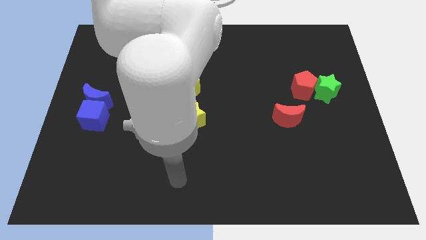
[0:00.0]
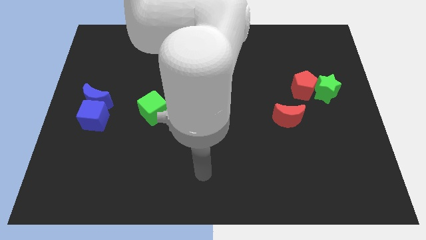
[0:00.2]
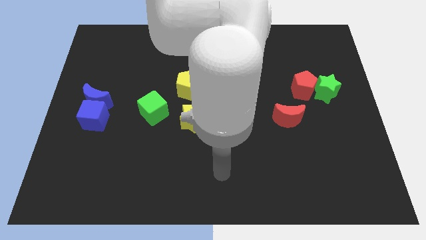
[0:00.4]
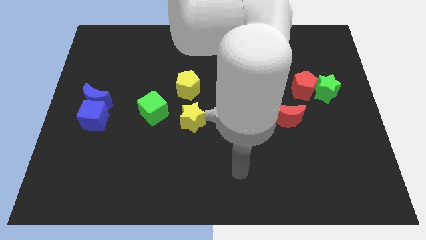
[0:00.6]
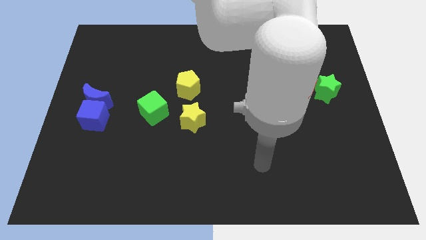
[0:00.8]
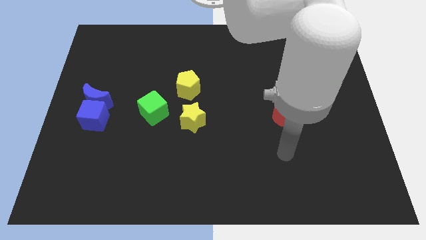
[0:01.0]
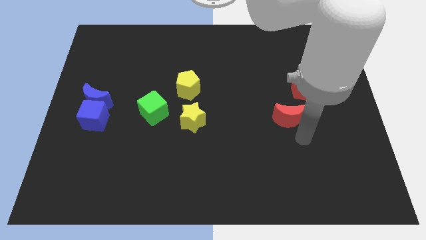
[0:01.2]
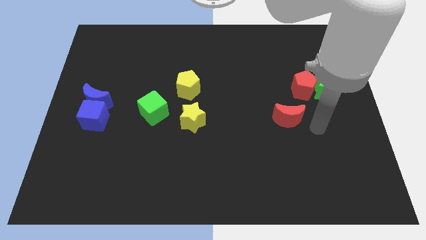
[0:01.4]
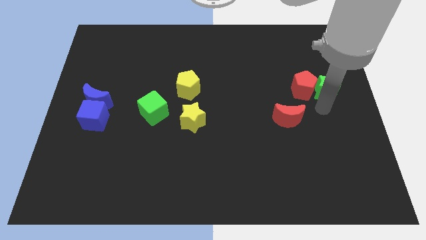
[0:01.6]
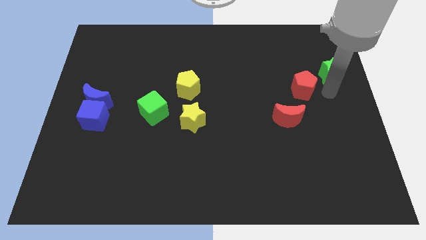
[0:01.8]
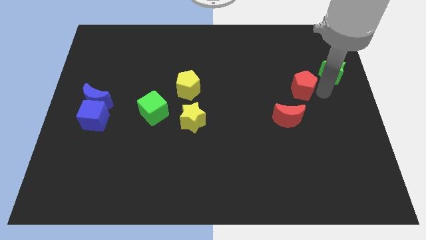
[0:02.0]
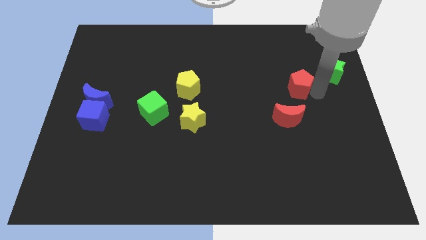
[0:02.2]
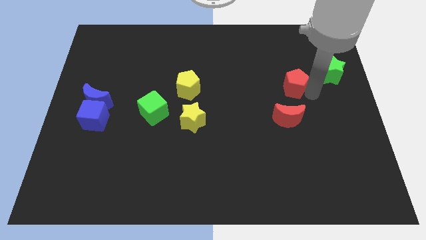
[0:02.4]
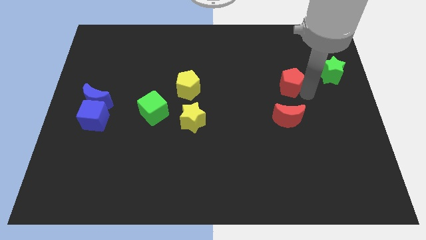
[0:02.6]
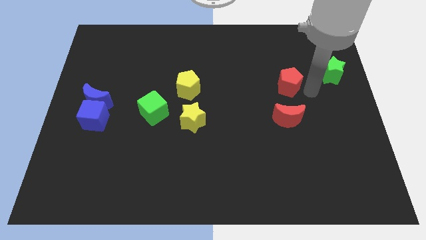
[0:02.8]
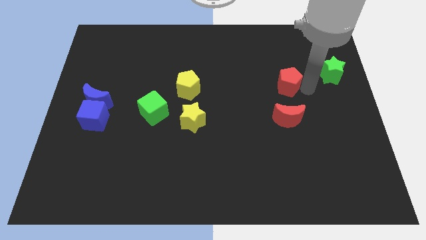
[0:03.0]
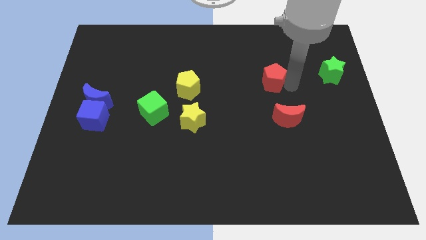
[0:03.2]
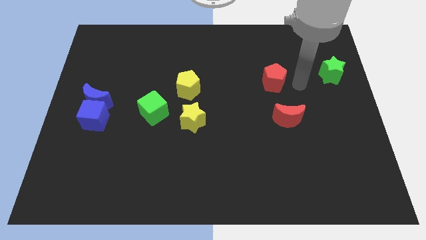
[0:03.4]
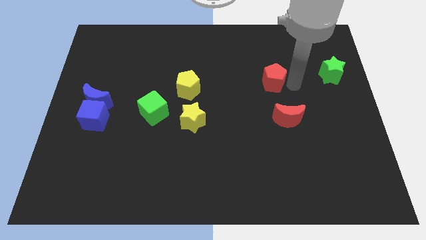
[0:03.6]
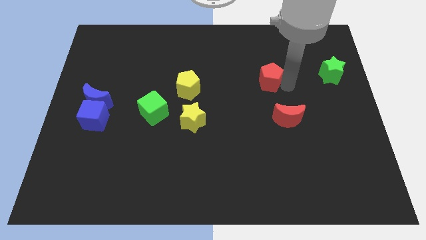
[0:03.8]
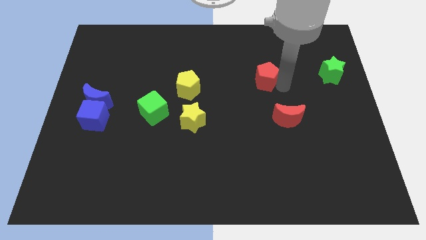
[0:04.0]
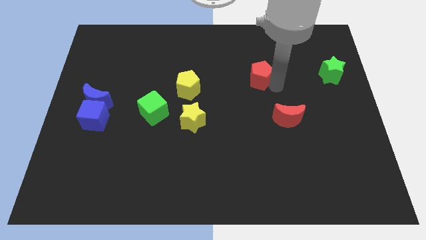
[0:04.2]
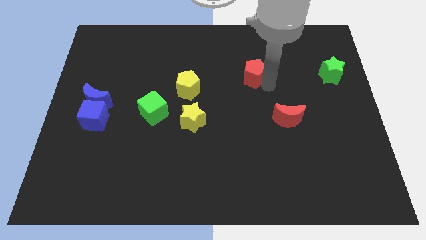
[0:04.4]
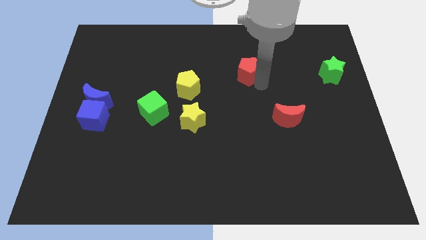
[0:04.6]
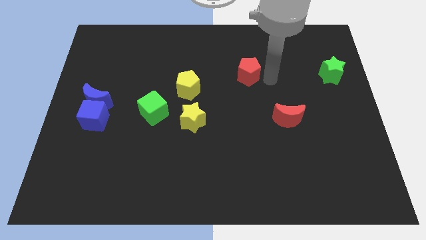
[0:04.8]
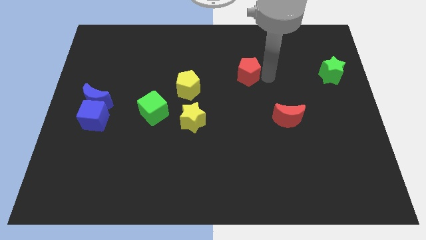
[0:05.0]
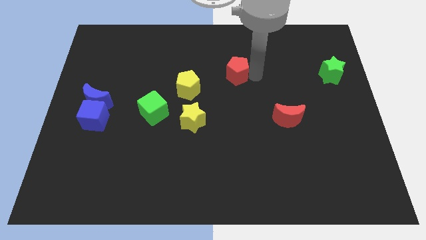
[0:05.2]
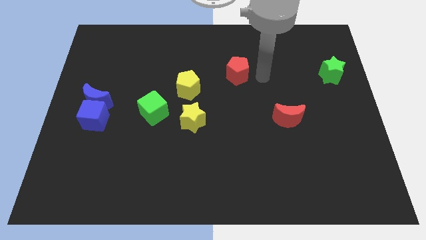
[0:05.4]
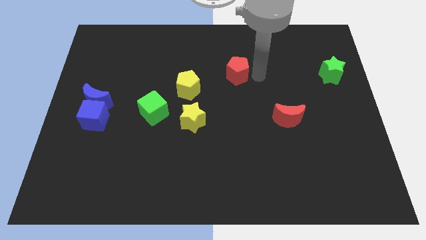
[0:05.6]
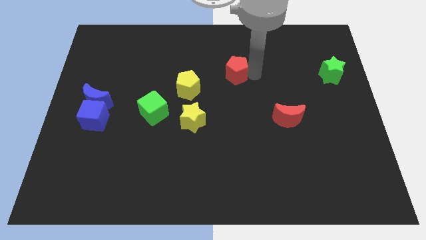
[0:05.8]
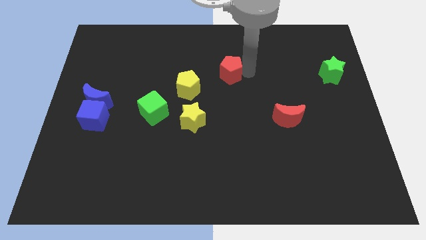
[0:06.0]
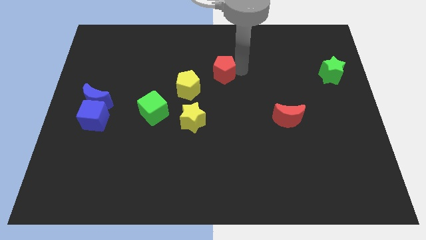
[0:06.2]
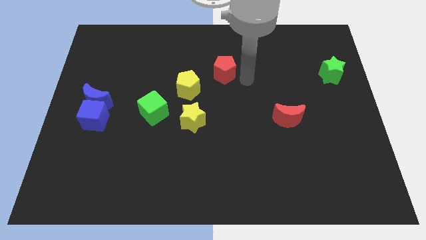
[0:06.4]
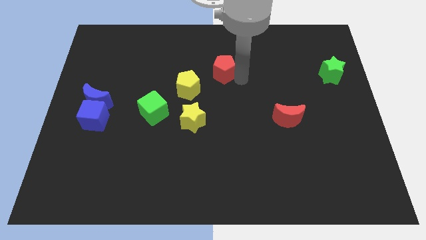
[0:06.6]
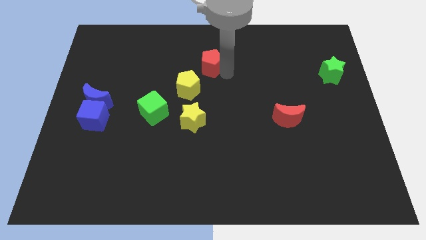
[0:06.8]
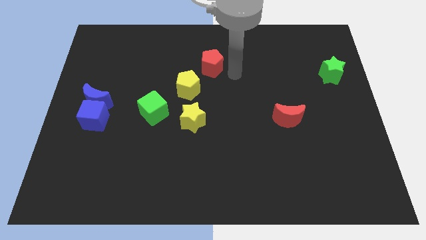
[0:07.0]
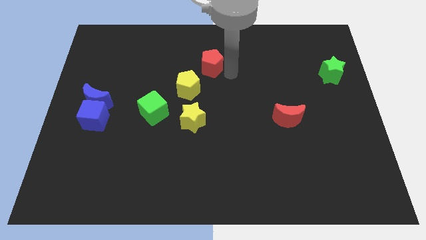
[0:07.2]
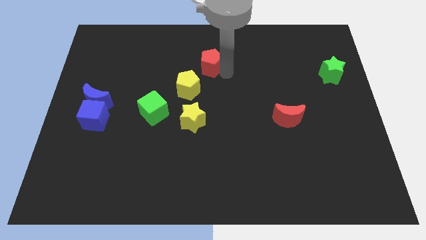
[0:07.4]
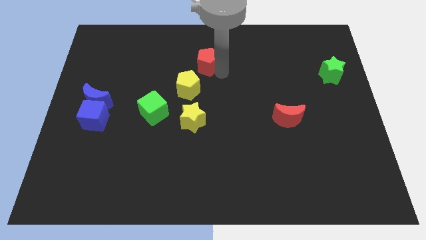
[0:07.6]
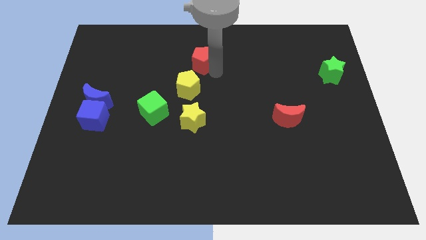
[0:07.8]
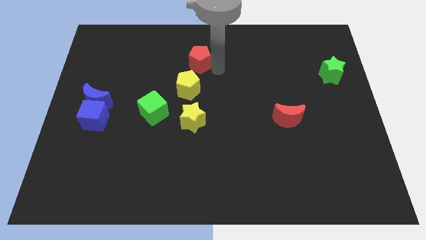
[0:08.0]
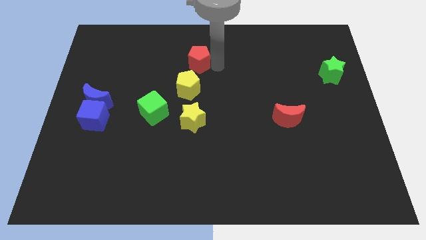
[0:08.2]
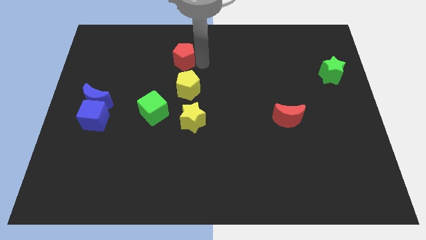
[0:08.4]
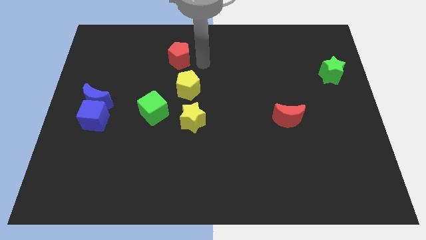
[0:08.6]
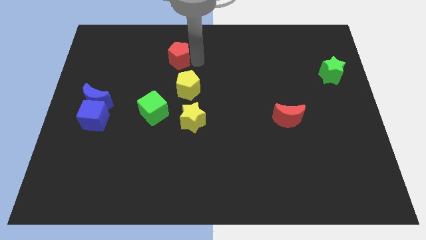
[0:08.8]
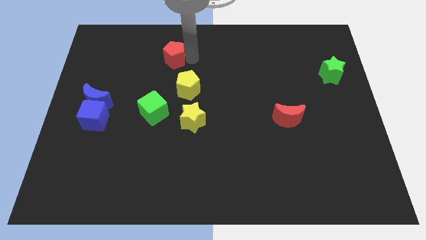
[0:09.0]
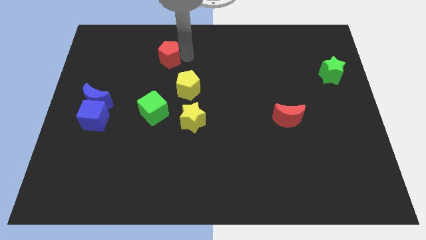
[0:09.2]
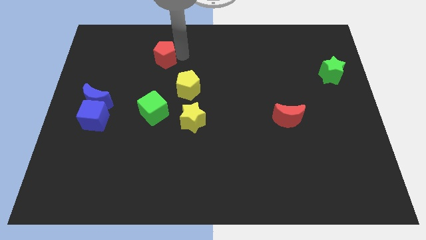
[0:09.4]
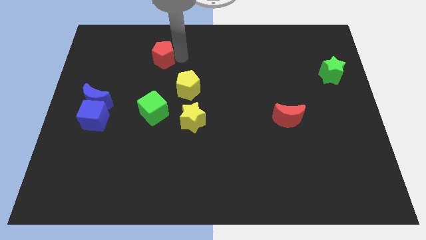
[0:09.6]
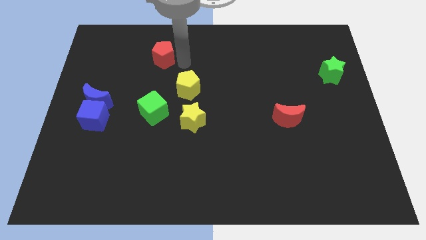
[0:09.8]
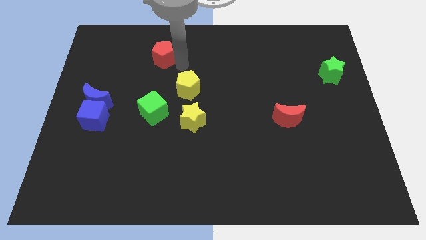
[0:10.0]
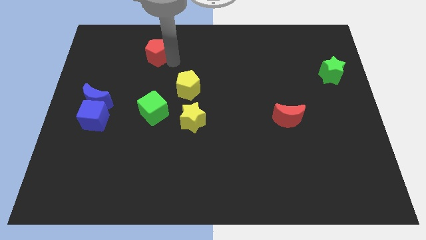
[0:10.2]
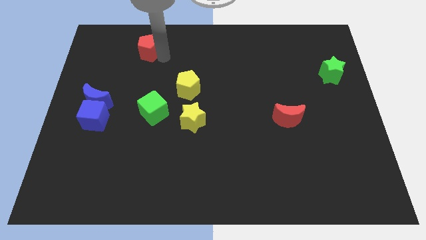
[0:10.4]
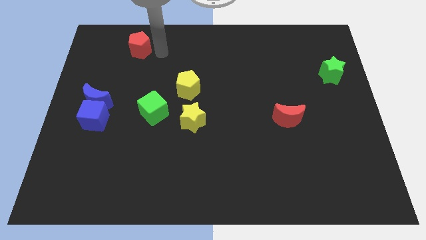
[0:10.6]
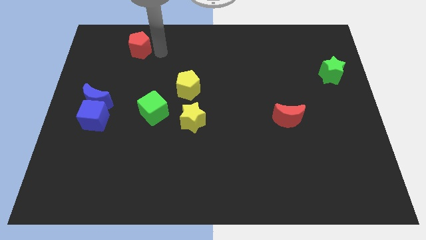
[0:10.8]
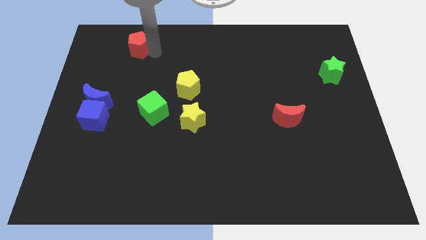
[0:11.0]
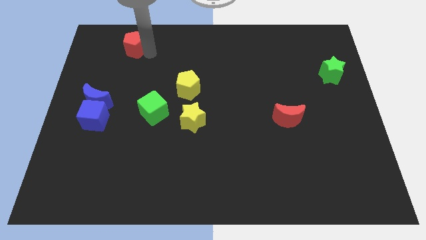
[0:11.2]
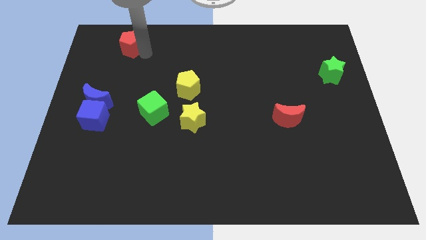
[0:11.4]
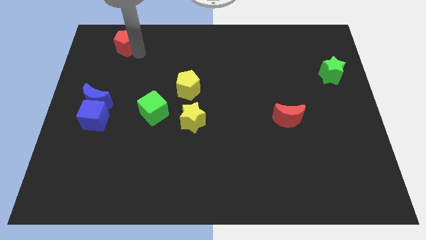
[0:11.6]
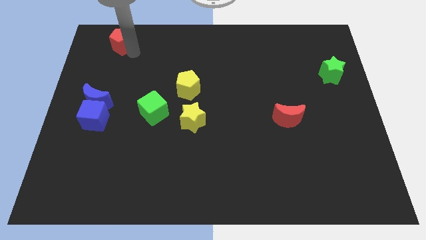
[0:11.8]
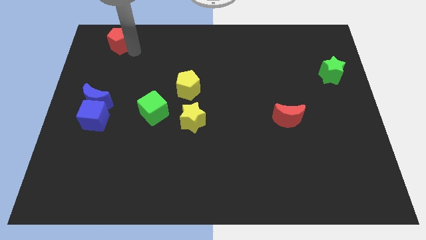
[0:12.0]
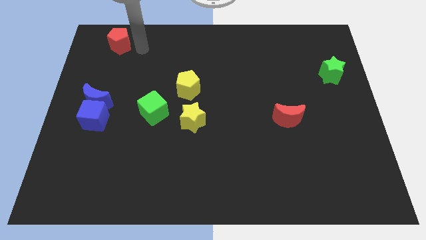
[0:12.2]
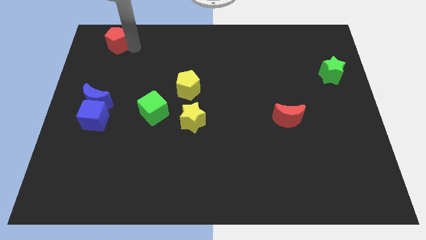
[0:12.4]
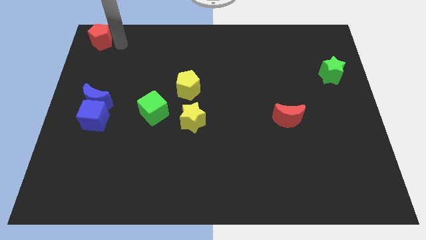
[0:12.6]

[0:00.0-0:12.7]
slide the red pentagon to the top left of the board
